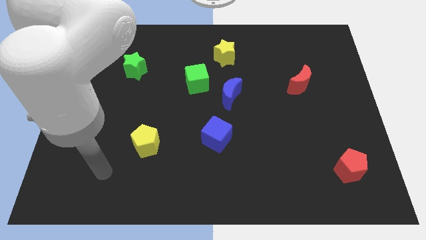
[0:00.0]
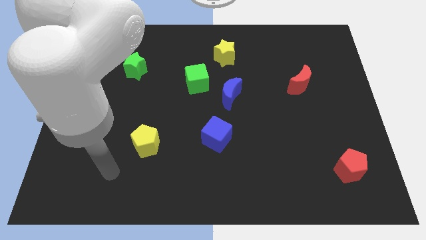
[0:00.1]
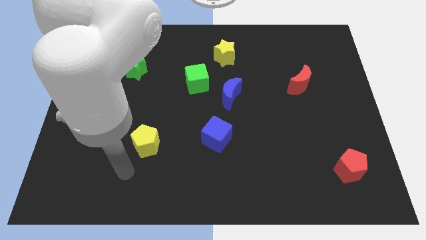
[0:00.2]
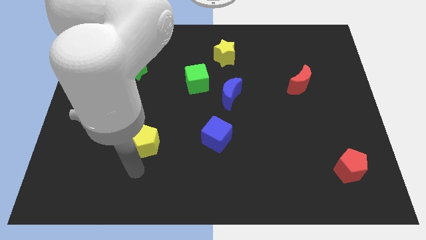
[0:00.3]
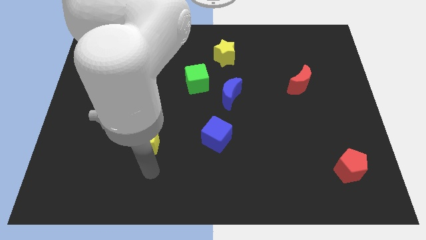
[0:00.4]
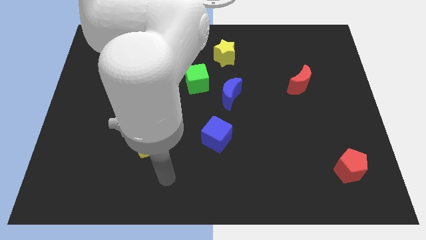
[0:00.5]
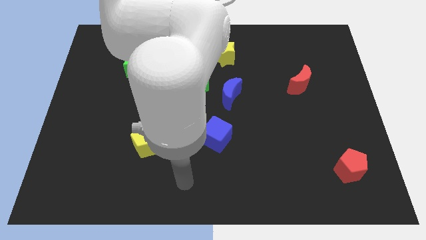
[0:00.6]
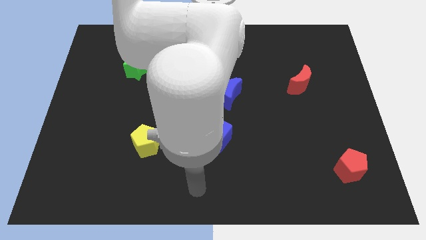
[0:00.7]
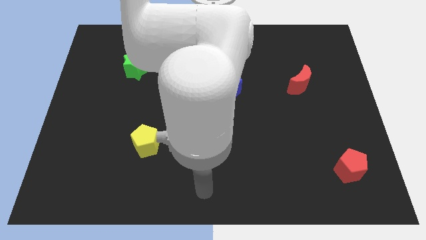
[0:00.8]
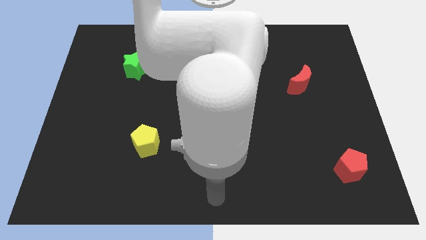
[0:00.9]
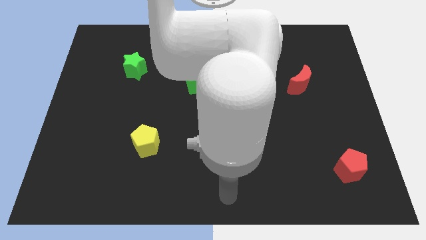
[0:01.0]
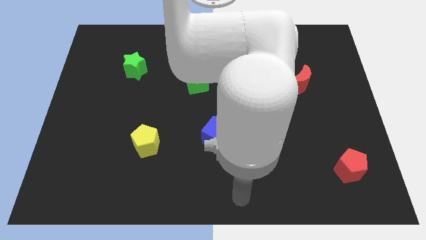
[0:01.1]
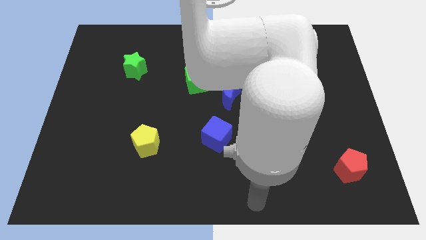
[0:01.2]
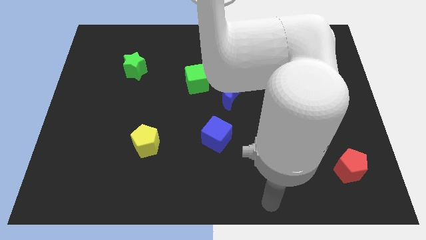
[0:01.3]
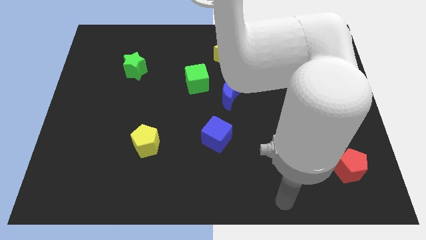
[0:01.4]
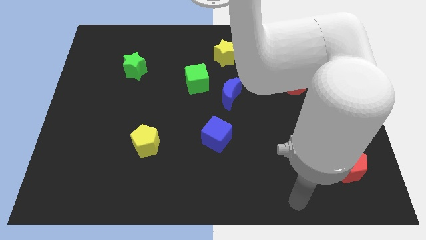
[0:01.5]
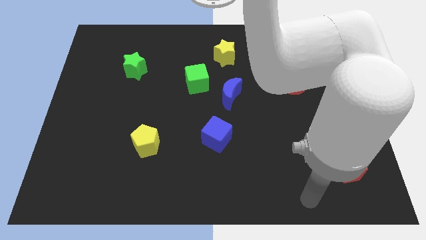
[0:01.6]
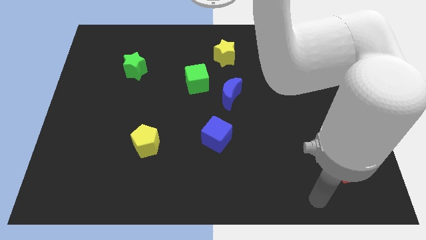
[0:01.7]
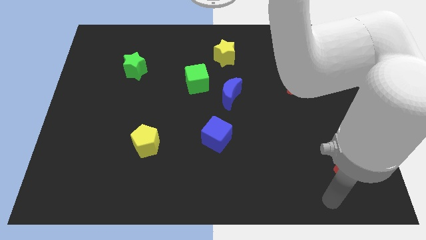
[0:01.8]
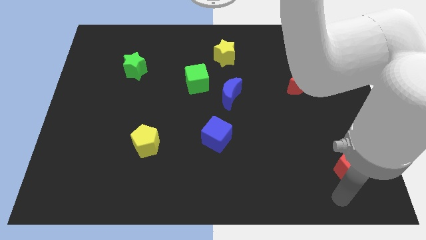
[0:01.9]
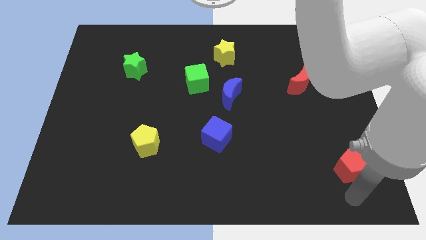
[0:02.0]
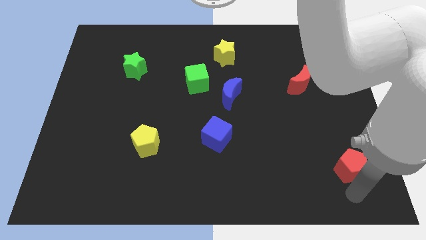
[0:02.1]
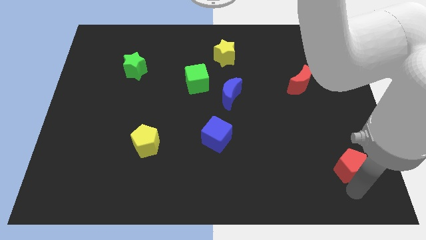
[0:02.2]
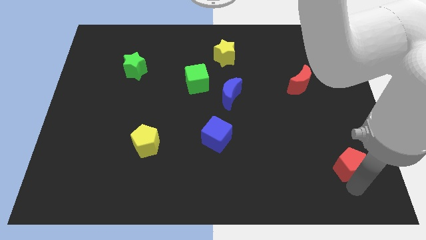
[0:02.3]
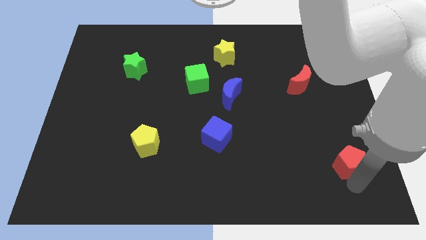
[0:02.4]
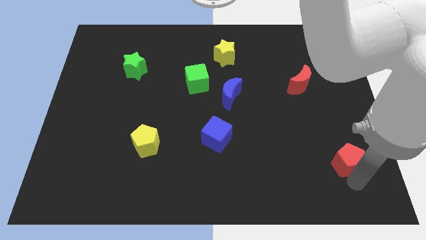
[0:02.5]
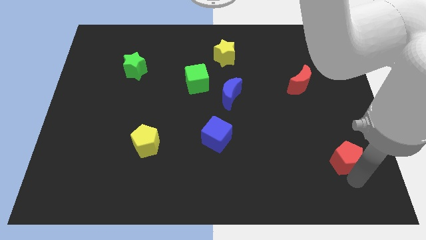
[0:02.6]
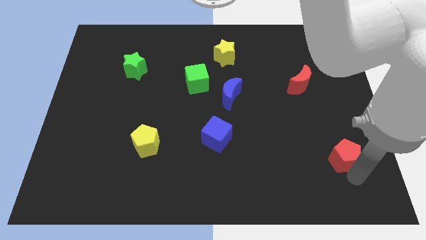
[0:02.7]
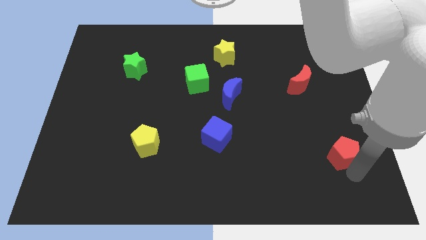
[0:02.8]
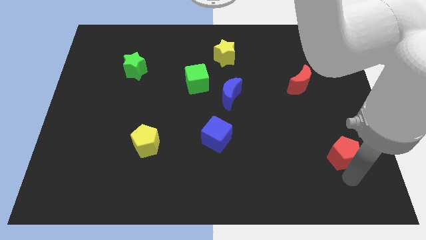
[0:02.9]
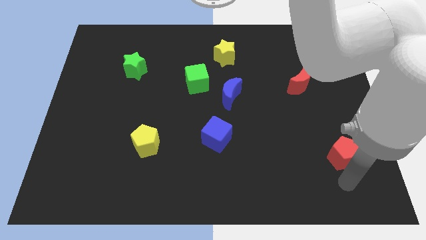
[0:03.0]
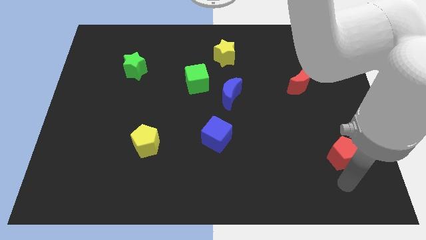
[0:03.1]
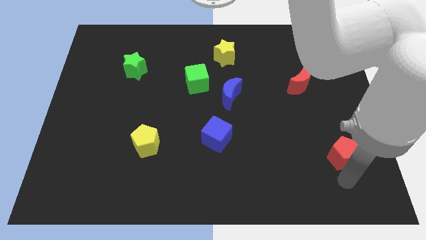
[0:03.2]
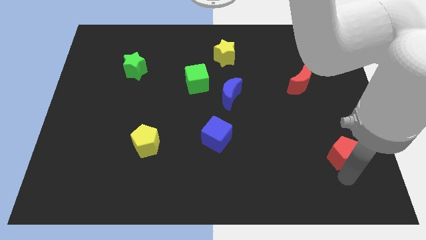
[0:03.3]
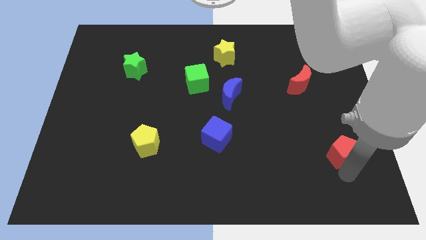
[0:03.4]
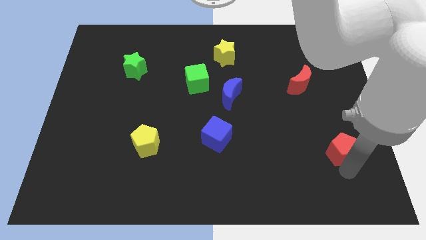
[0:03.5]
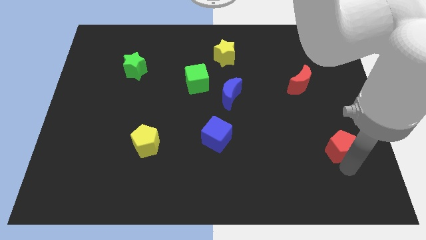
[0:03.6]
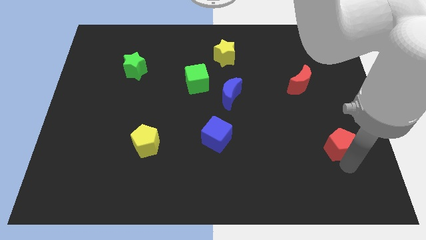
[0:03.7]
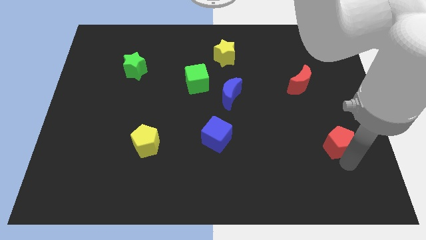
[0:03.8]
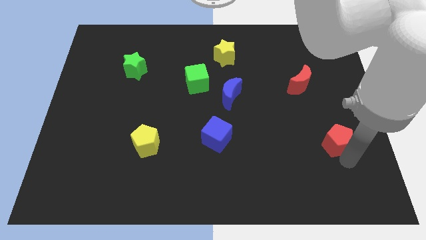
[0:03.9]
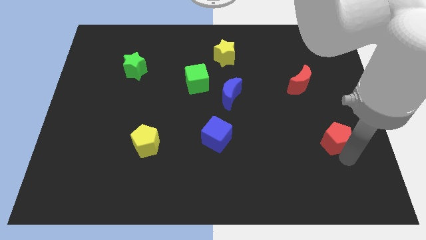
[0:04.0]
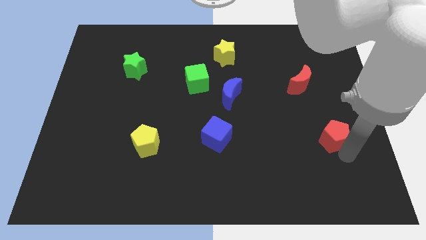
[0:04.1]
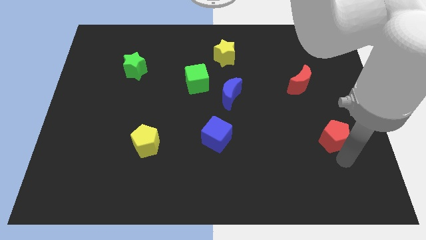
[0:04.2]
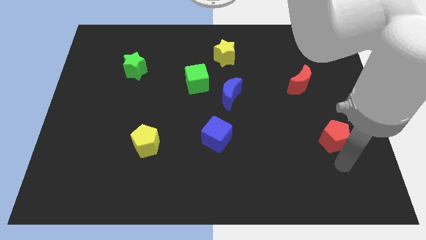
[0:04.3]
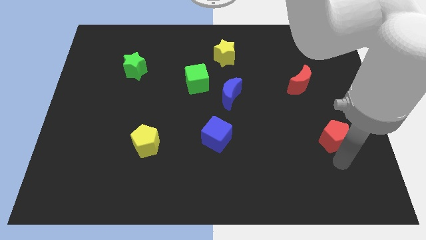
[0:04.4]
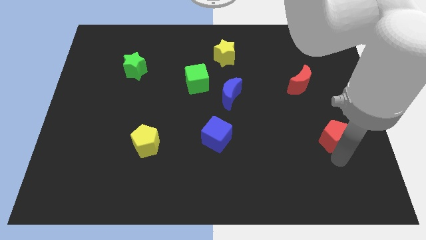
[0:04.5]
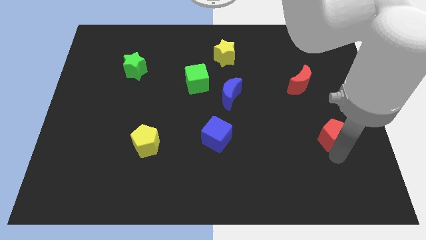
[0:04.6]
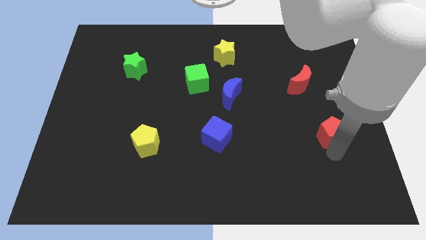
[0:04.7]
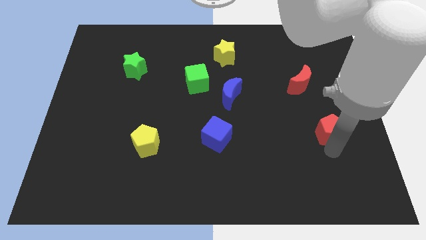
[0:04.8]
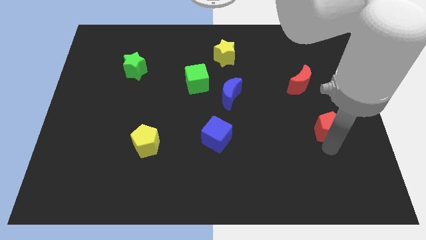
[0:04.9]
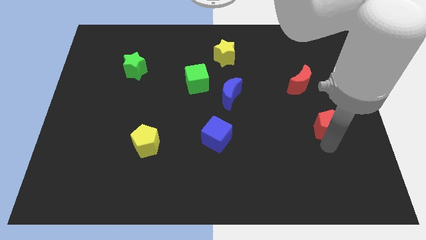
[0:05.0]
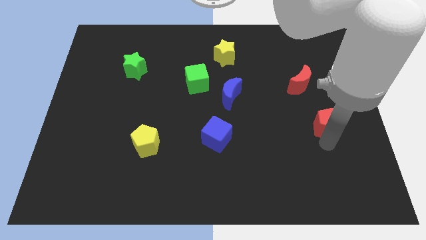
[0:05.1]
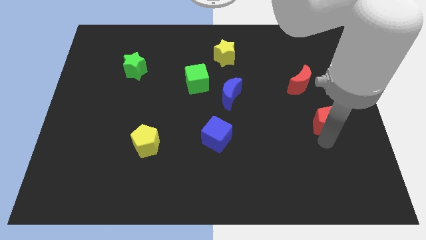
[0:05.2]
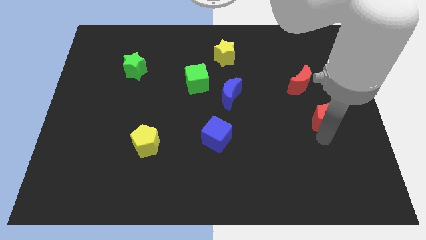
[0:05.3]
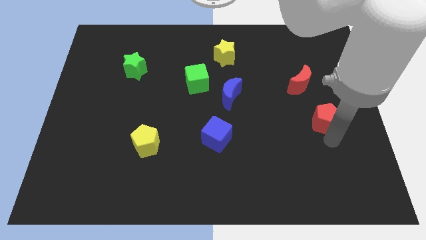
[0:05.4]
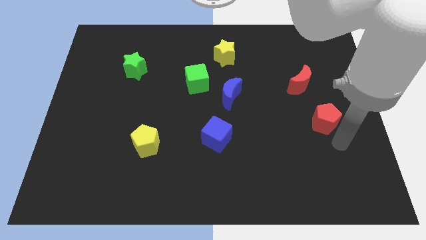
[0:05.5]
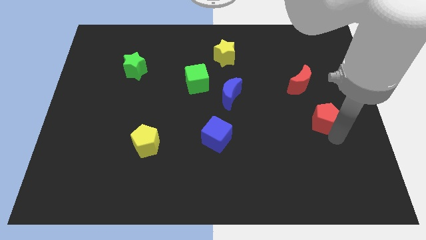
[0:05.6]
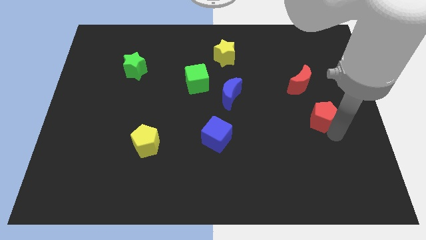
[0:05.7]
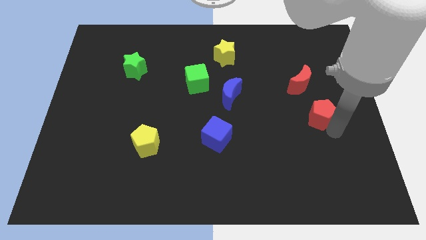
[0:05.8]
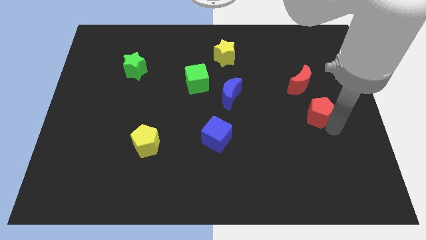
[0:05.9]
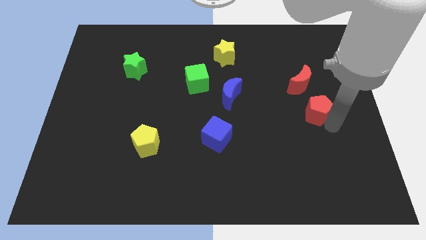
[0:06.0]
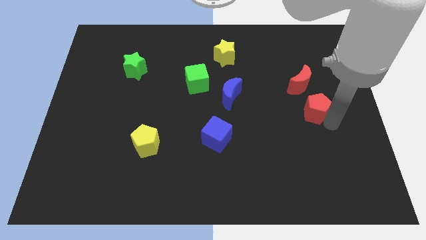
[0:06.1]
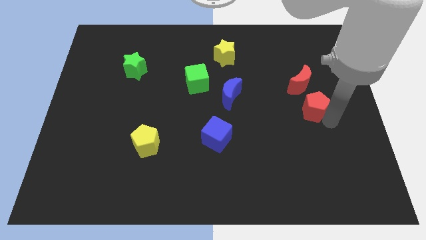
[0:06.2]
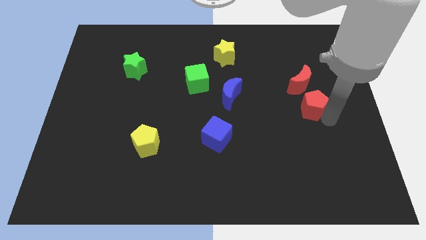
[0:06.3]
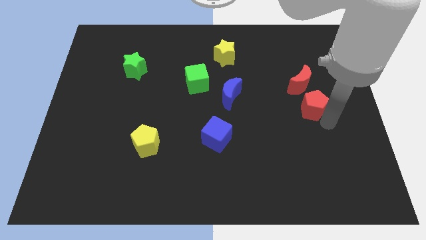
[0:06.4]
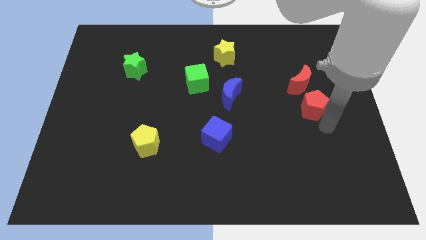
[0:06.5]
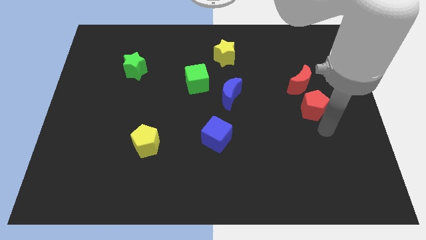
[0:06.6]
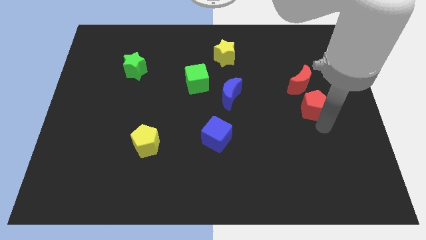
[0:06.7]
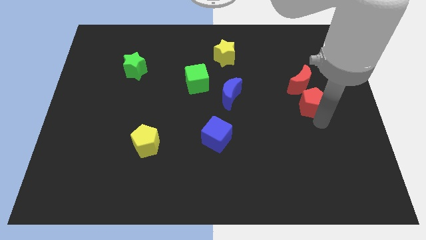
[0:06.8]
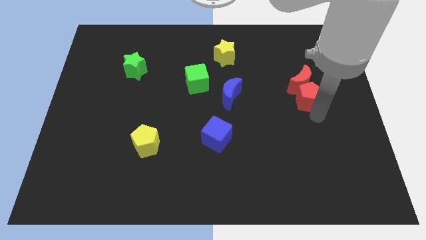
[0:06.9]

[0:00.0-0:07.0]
push the red pentagon to the red moon
